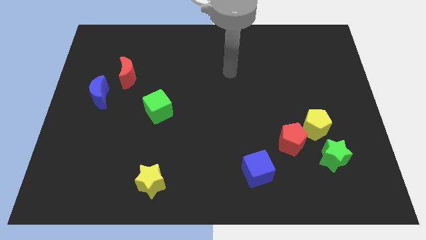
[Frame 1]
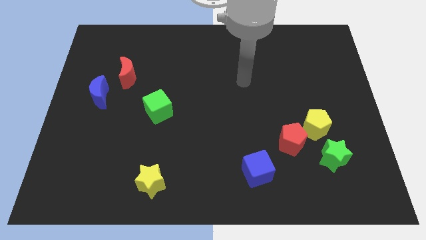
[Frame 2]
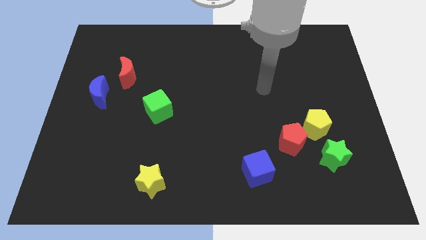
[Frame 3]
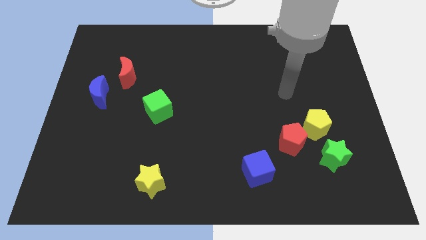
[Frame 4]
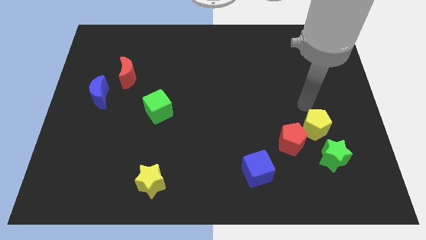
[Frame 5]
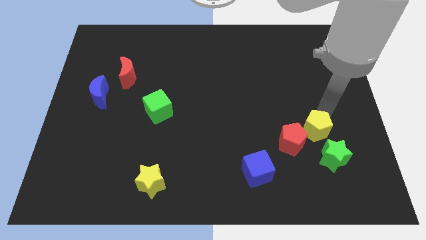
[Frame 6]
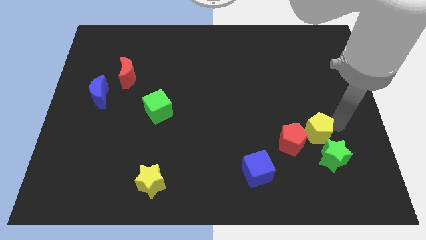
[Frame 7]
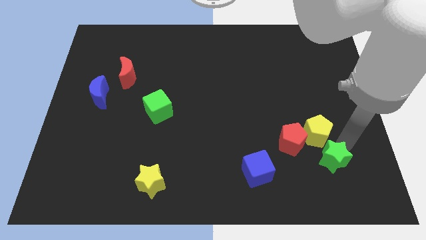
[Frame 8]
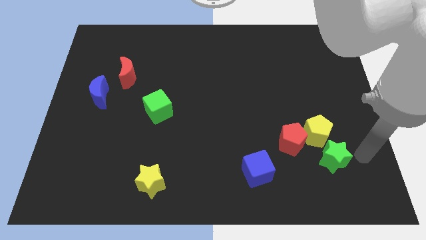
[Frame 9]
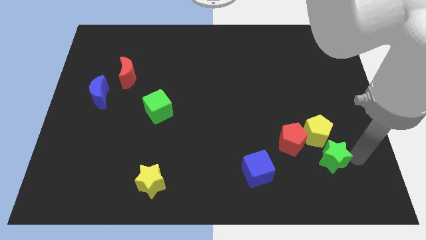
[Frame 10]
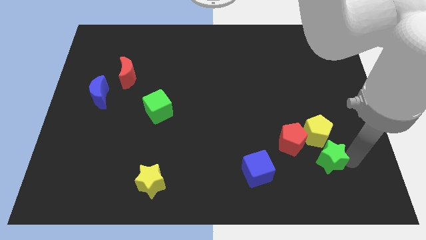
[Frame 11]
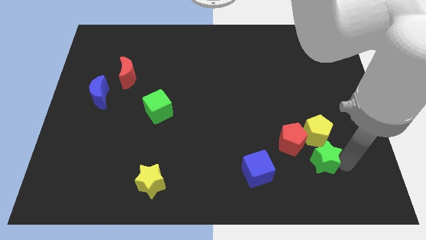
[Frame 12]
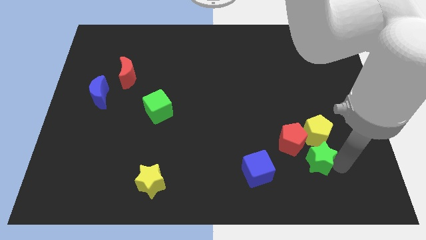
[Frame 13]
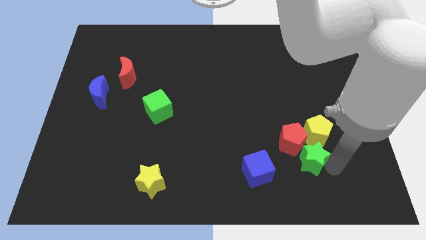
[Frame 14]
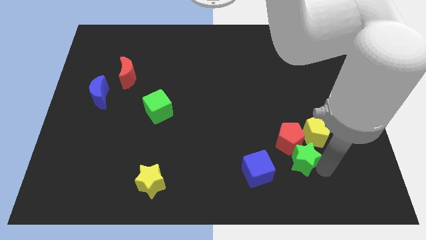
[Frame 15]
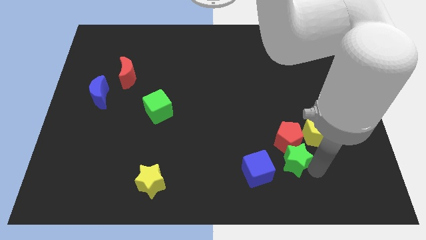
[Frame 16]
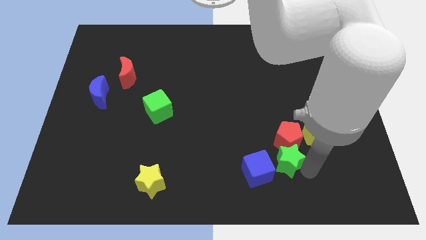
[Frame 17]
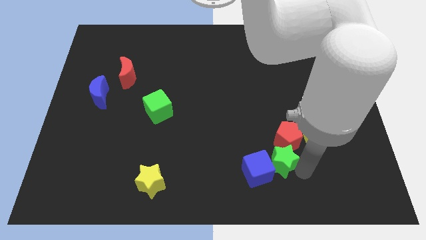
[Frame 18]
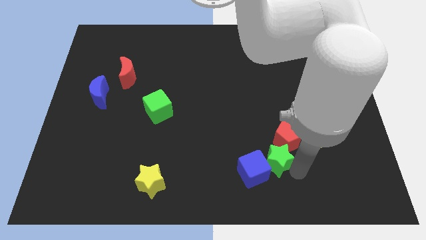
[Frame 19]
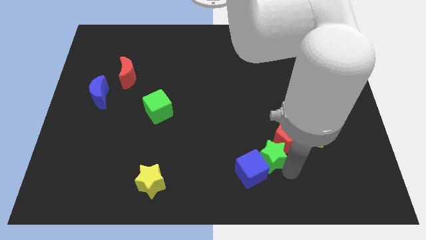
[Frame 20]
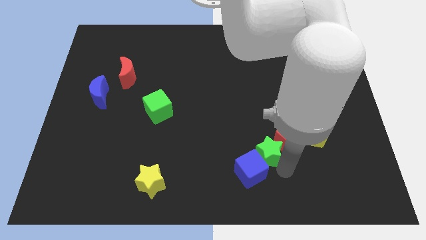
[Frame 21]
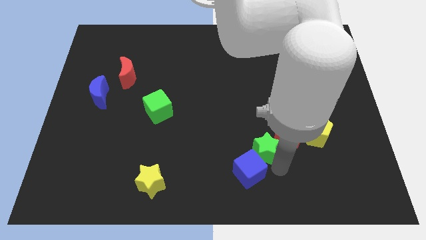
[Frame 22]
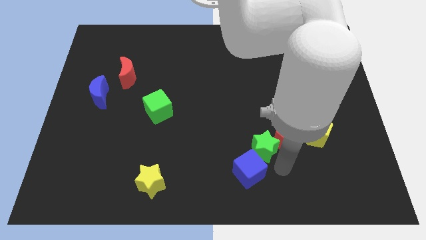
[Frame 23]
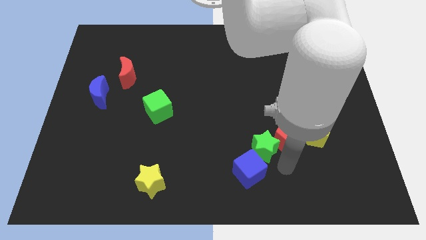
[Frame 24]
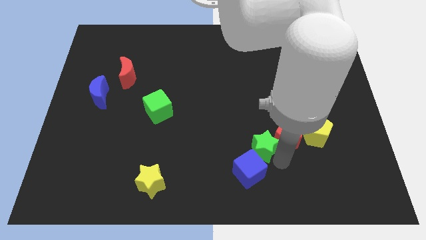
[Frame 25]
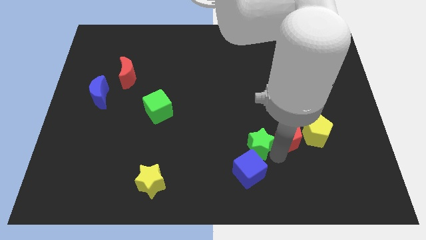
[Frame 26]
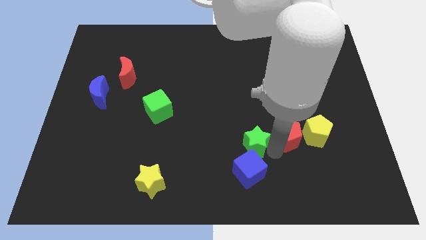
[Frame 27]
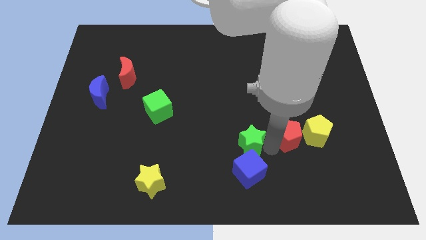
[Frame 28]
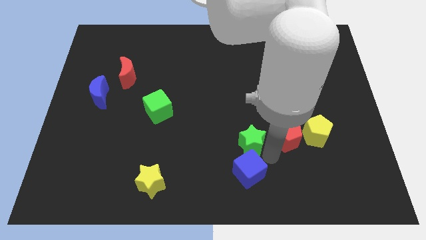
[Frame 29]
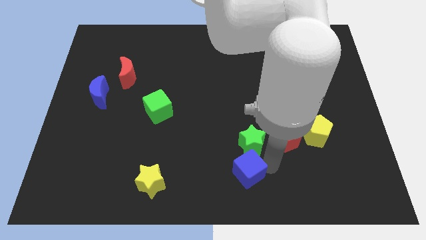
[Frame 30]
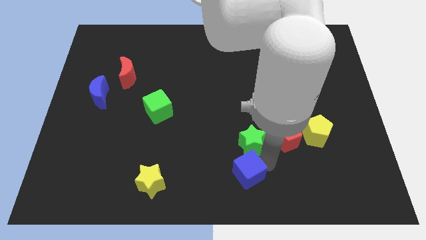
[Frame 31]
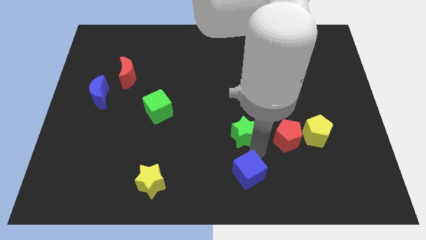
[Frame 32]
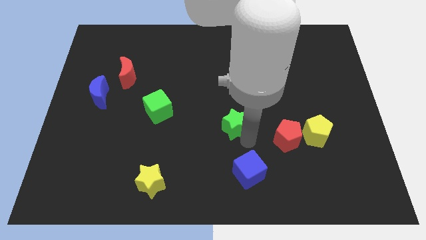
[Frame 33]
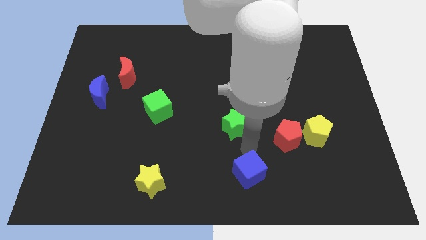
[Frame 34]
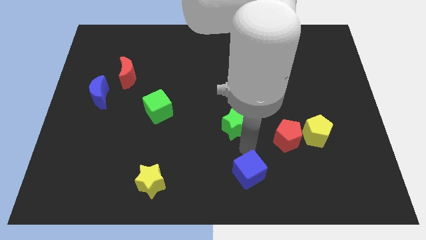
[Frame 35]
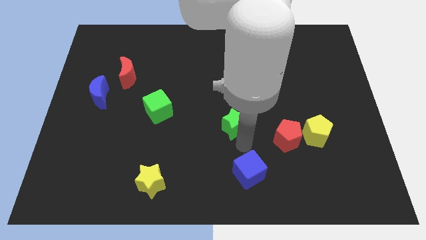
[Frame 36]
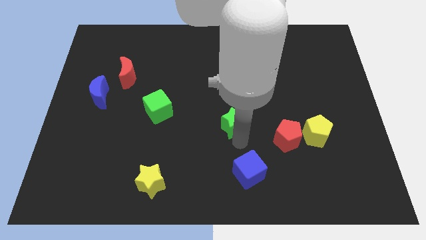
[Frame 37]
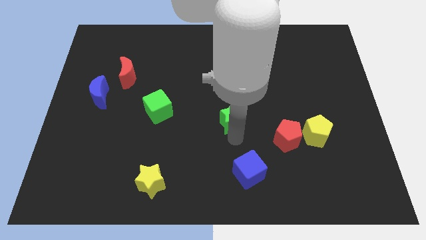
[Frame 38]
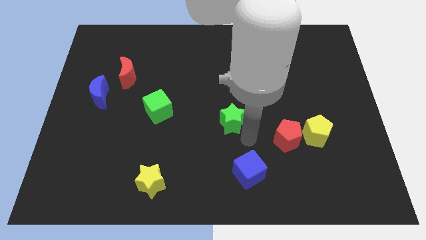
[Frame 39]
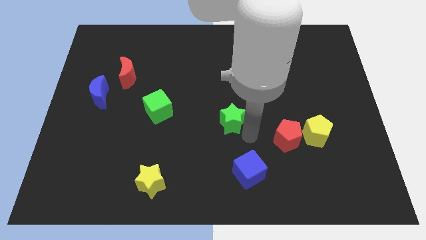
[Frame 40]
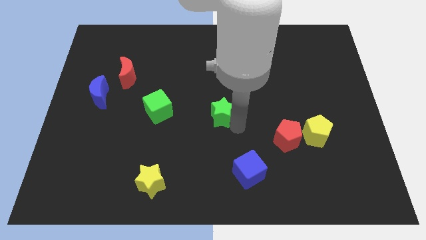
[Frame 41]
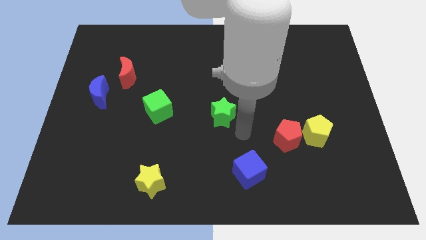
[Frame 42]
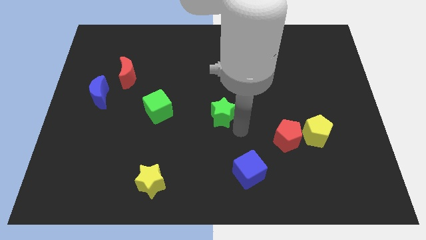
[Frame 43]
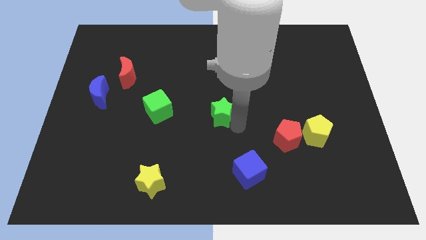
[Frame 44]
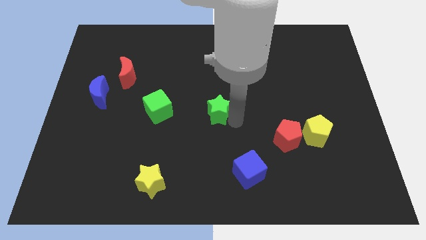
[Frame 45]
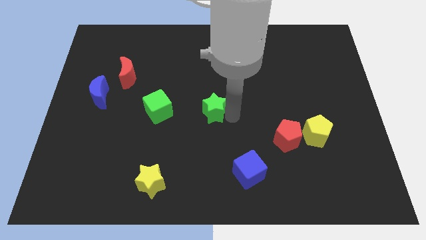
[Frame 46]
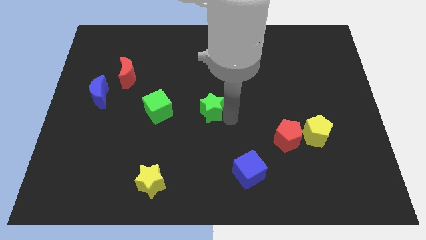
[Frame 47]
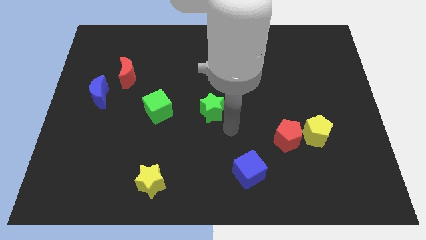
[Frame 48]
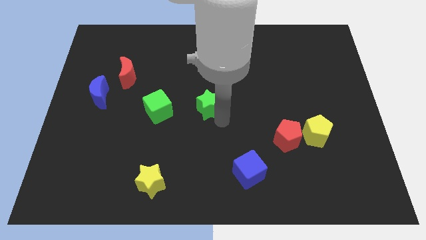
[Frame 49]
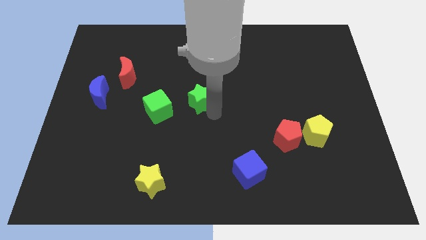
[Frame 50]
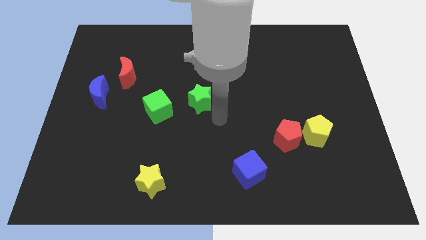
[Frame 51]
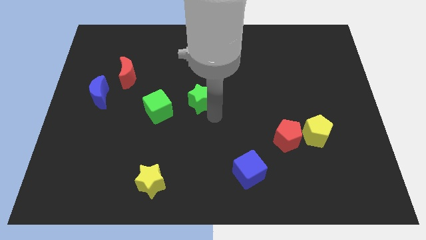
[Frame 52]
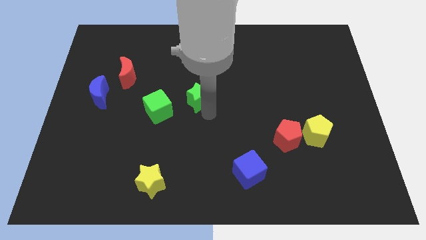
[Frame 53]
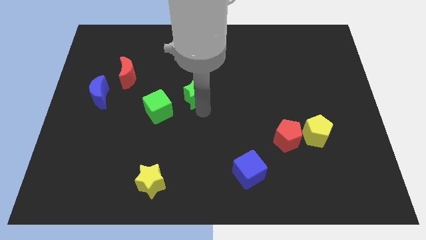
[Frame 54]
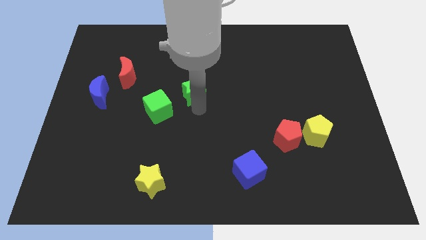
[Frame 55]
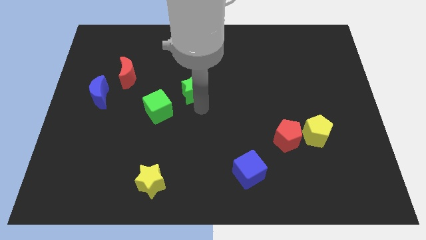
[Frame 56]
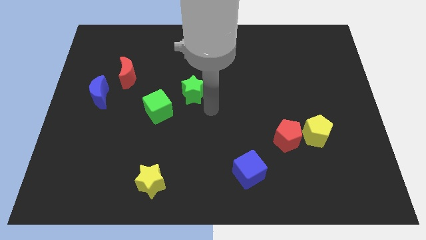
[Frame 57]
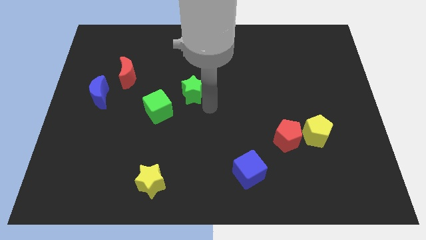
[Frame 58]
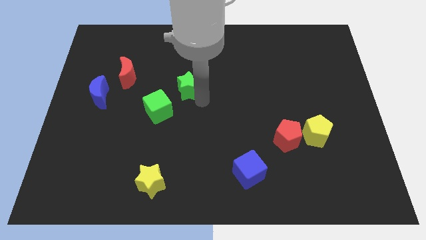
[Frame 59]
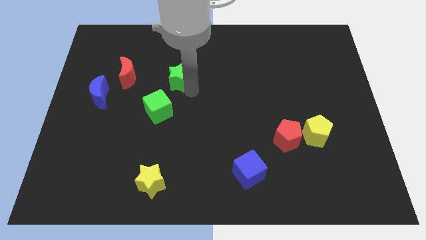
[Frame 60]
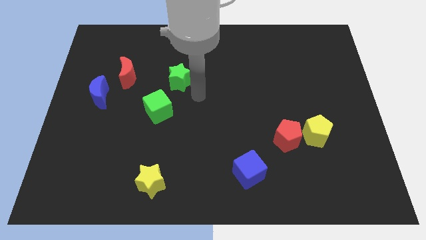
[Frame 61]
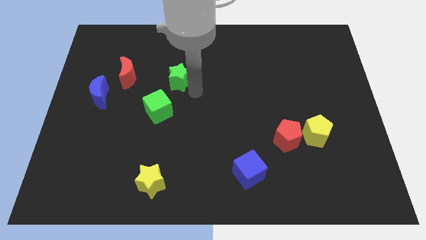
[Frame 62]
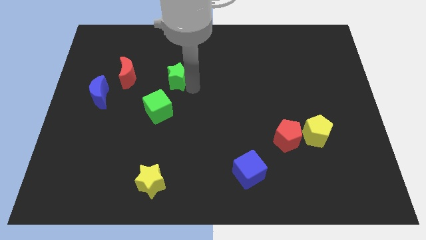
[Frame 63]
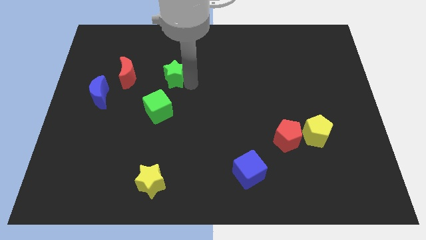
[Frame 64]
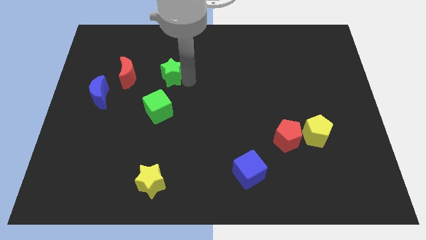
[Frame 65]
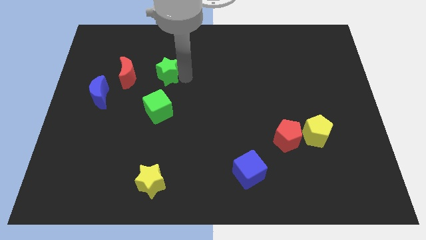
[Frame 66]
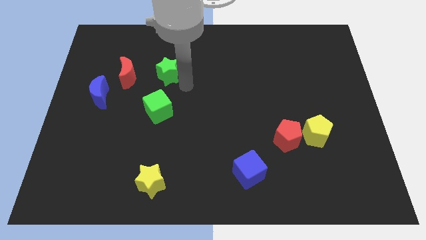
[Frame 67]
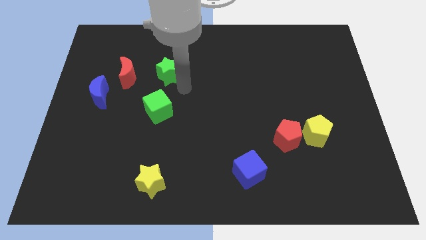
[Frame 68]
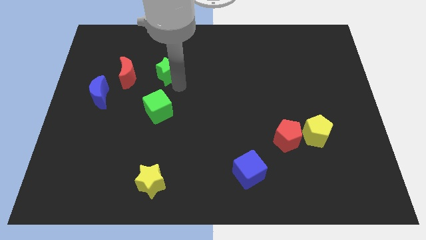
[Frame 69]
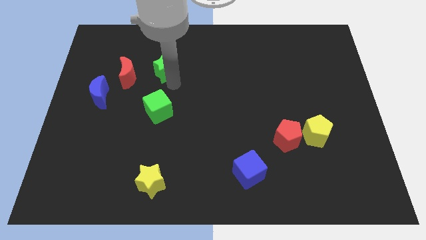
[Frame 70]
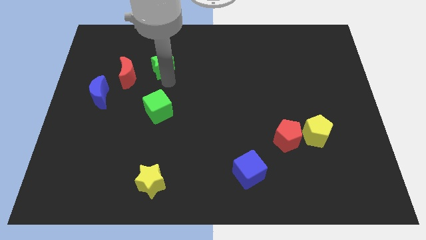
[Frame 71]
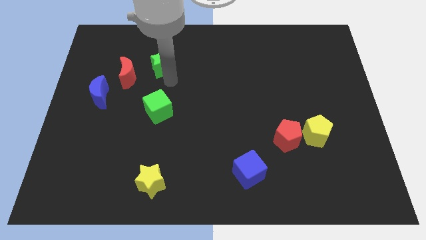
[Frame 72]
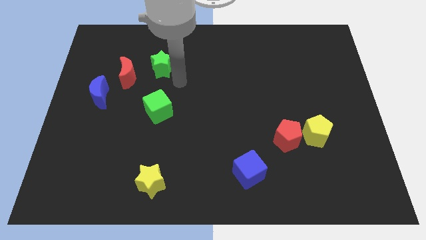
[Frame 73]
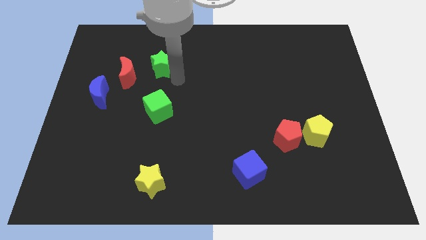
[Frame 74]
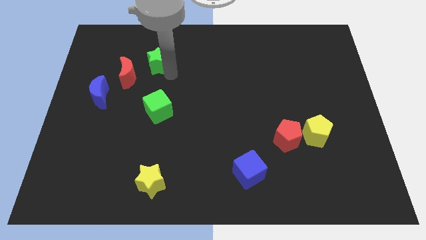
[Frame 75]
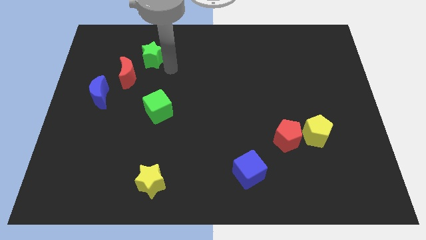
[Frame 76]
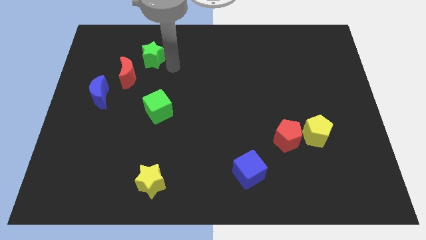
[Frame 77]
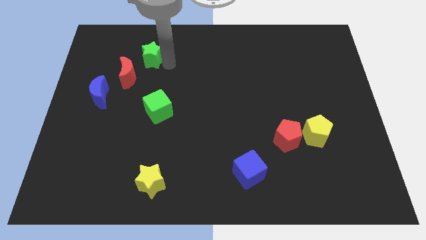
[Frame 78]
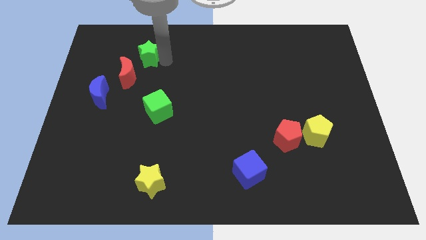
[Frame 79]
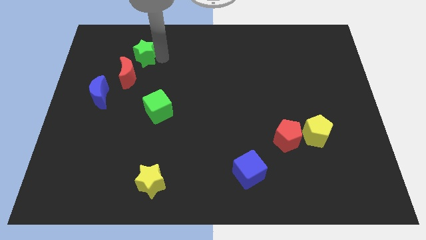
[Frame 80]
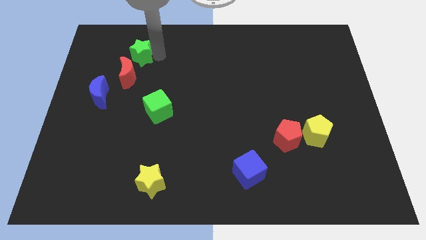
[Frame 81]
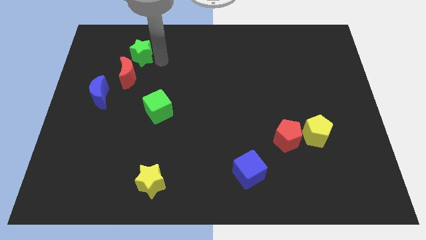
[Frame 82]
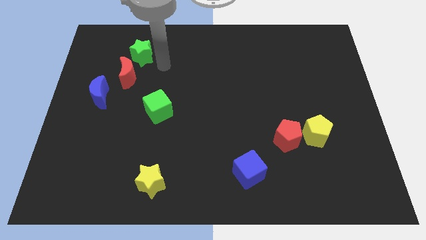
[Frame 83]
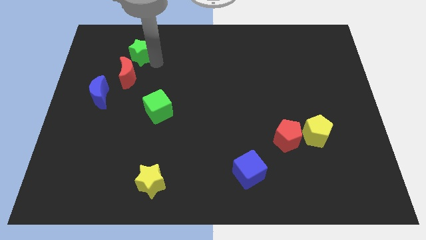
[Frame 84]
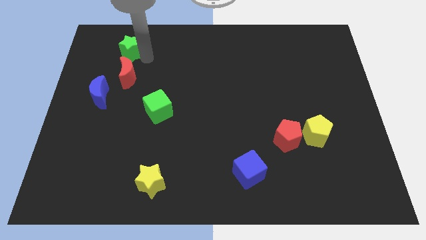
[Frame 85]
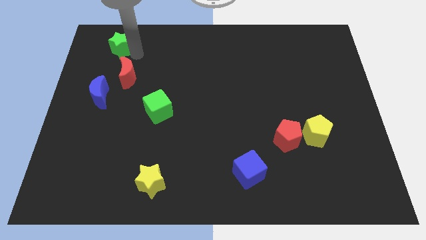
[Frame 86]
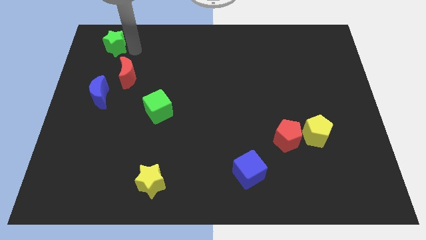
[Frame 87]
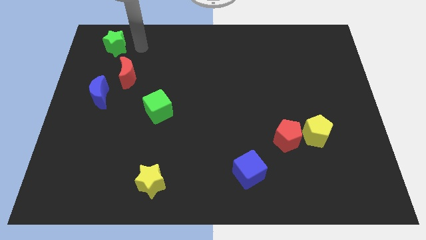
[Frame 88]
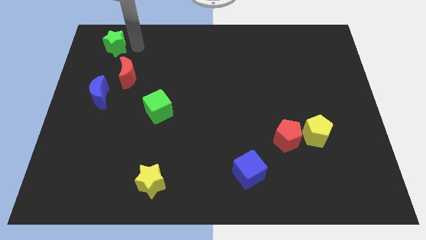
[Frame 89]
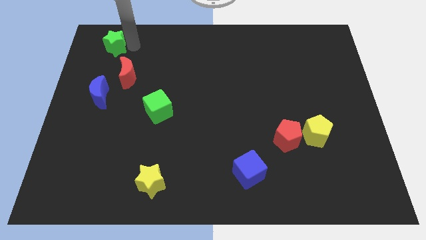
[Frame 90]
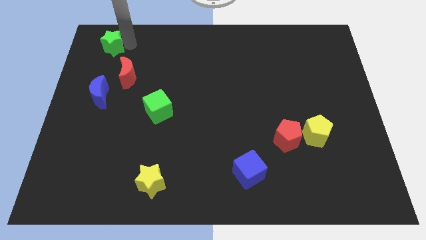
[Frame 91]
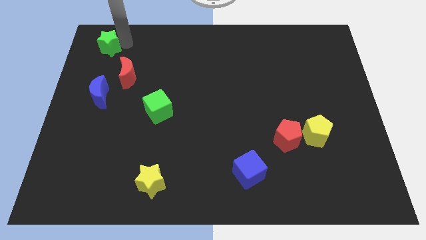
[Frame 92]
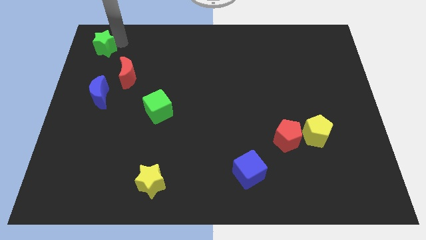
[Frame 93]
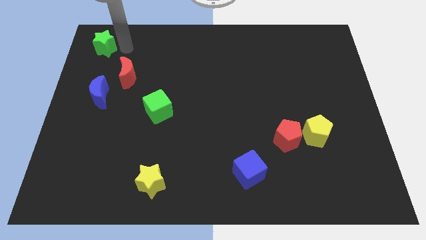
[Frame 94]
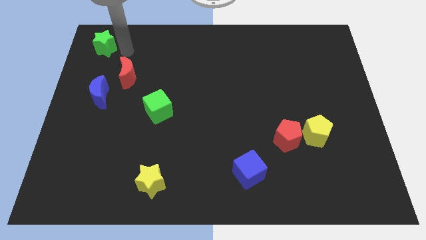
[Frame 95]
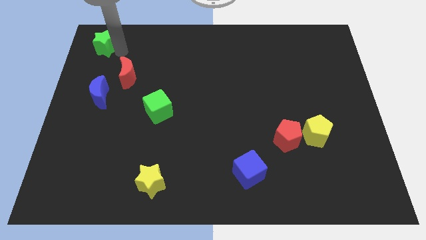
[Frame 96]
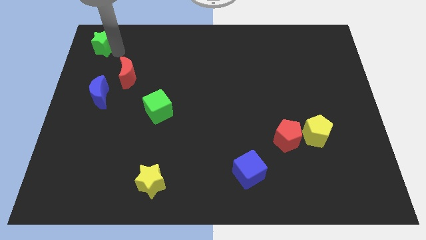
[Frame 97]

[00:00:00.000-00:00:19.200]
move the green star to the top left corner
